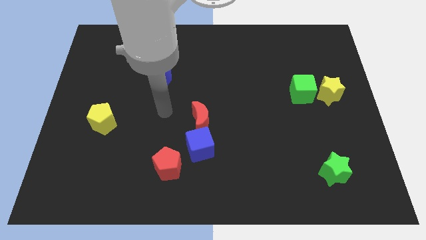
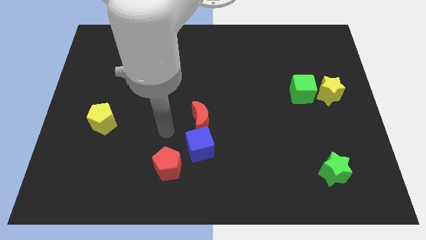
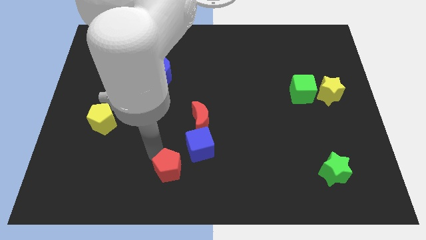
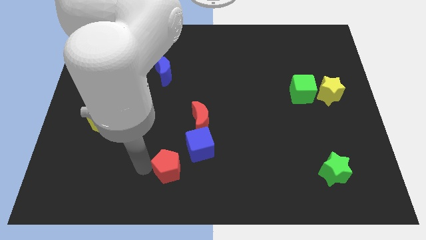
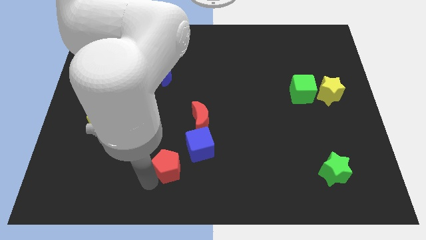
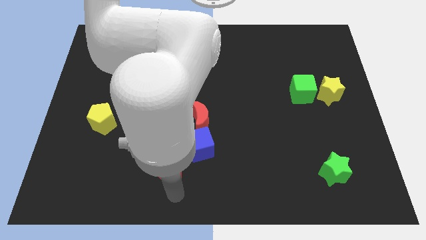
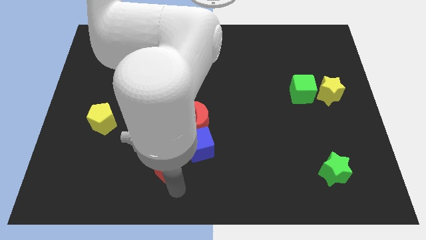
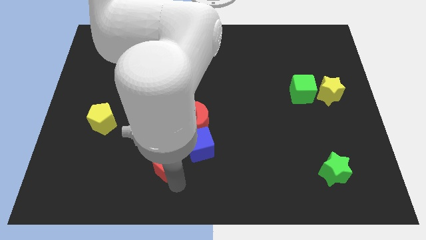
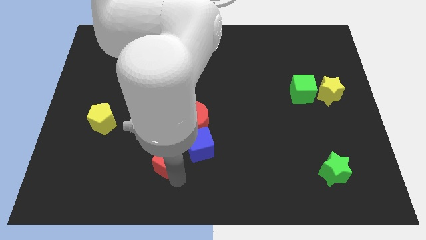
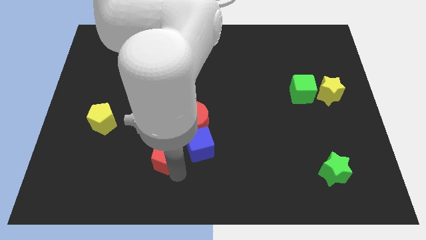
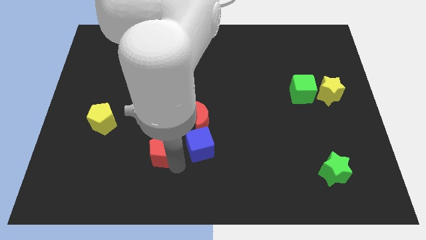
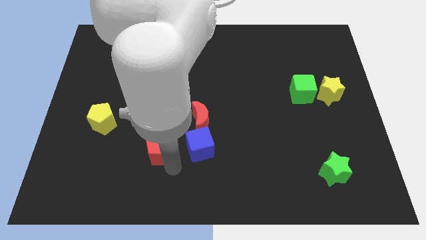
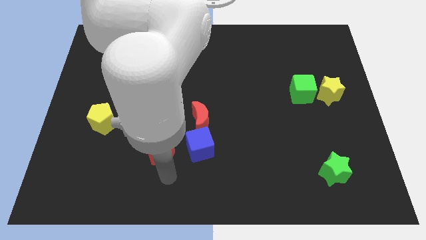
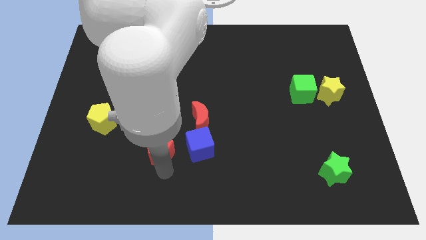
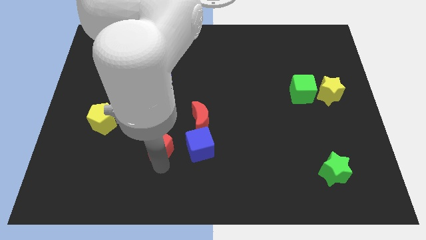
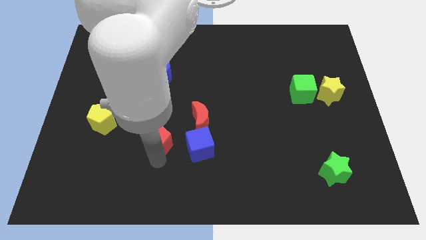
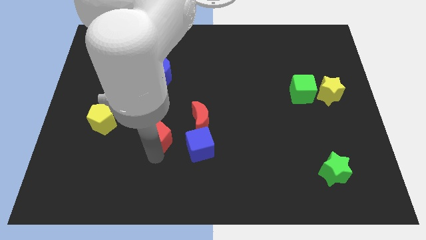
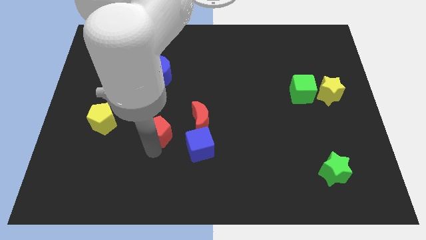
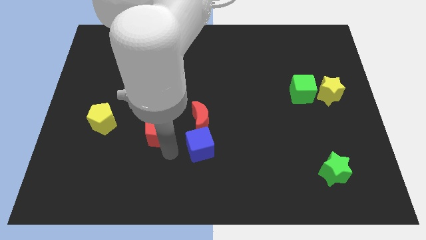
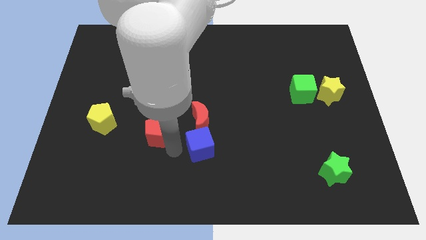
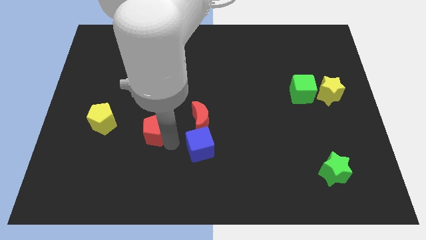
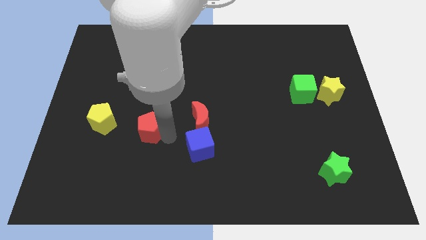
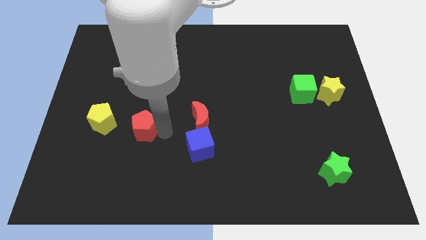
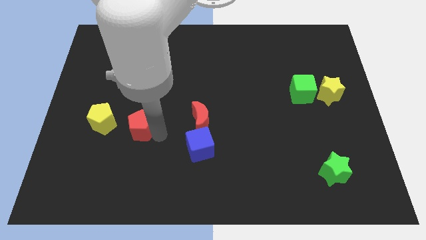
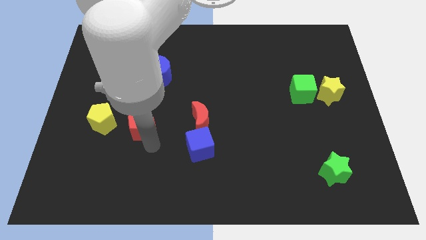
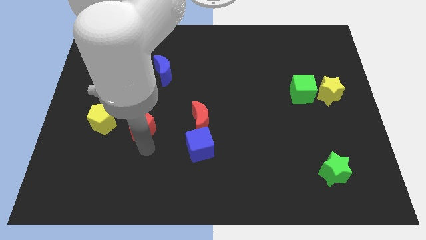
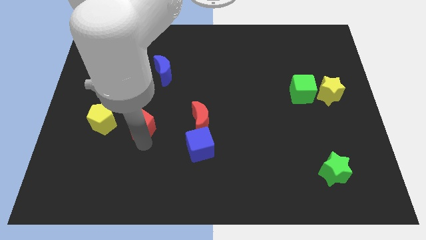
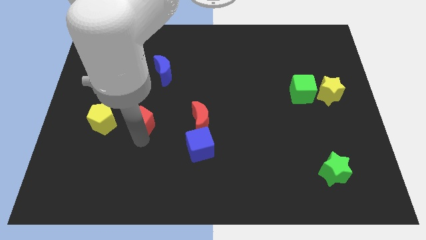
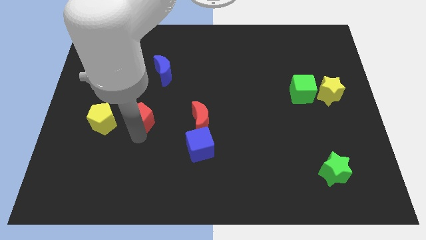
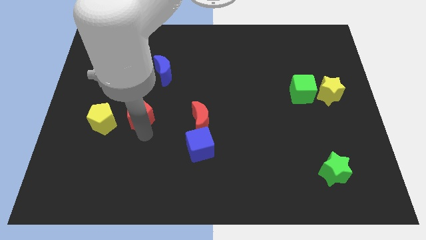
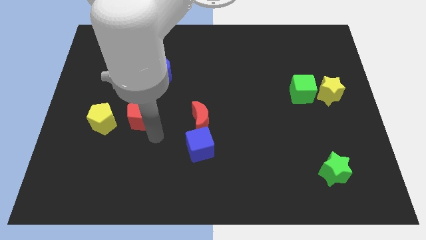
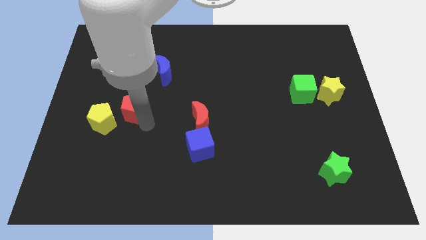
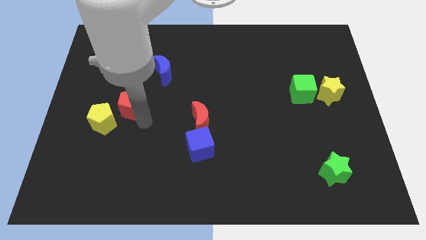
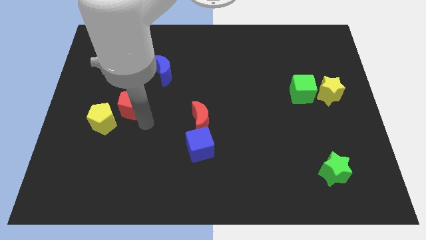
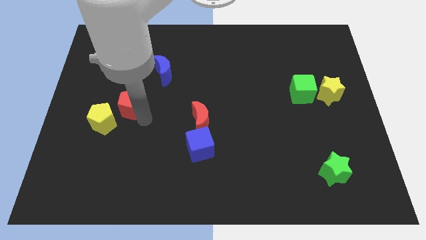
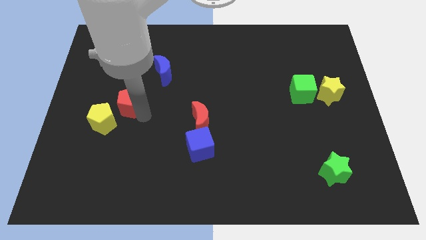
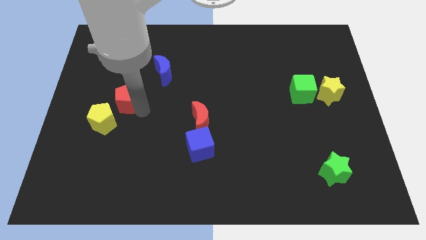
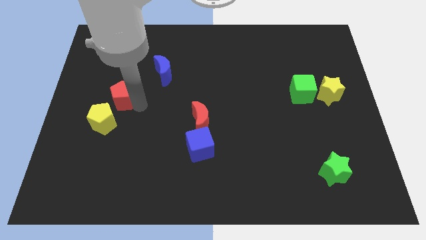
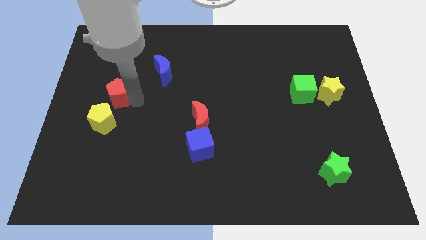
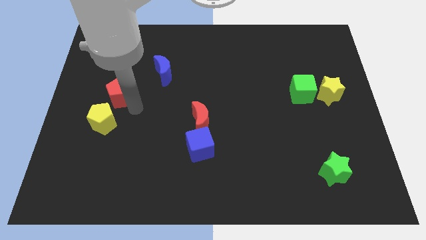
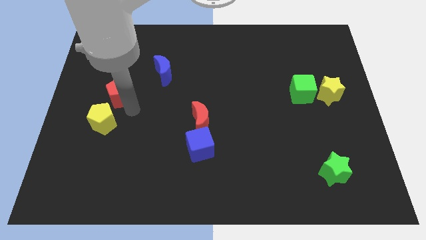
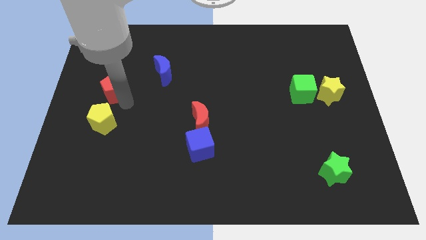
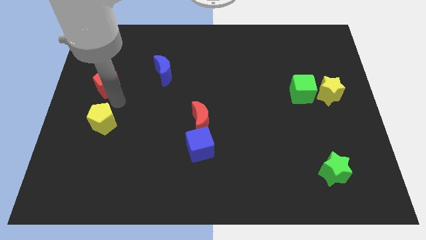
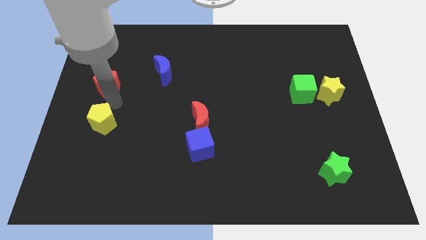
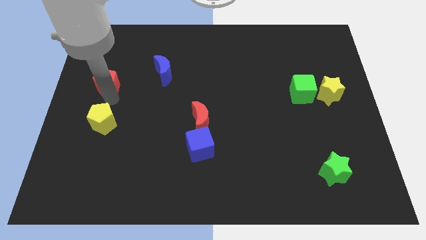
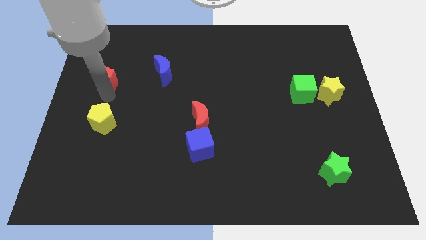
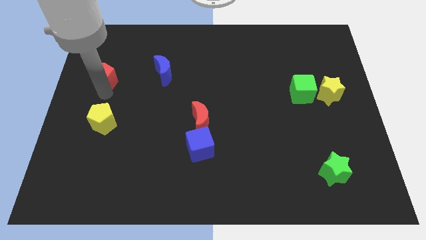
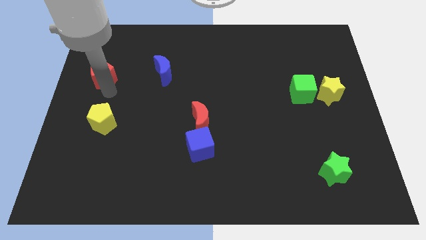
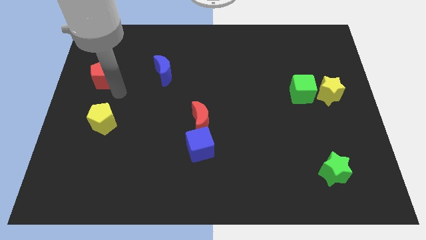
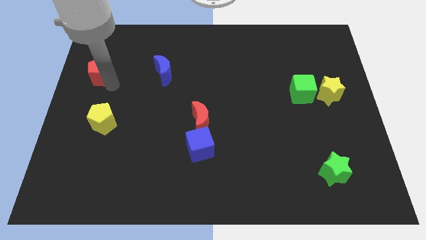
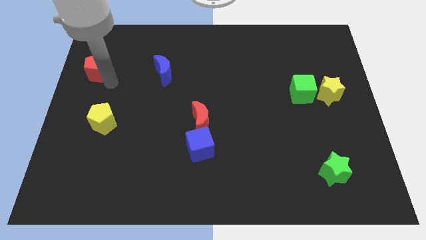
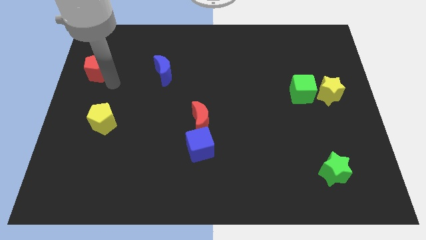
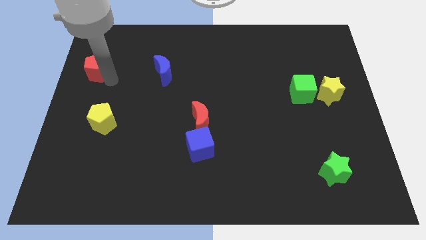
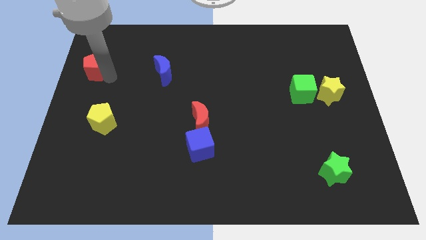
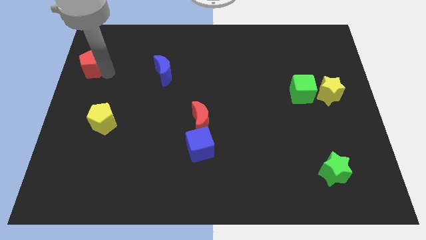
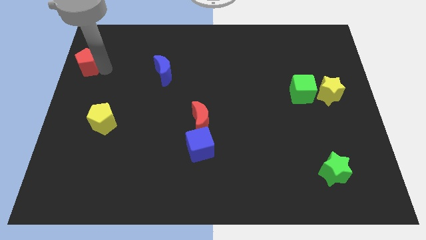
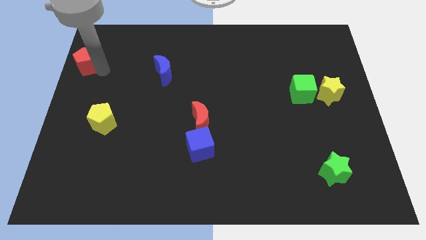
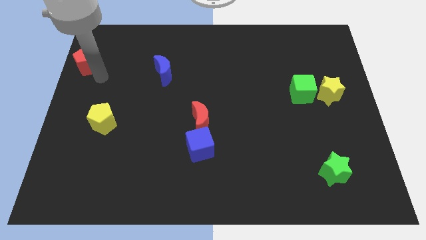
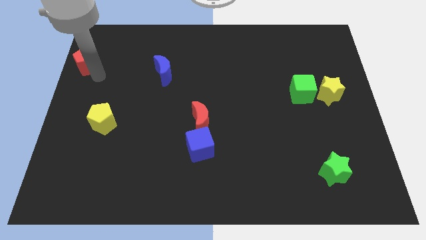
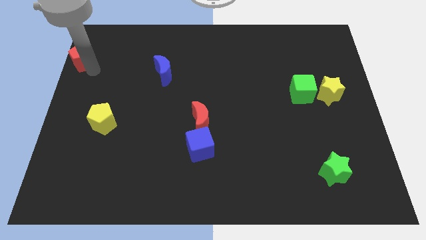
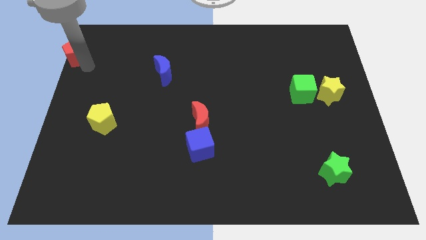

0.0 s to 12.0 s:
push the red pentagon to the top left of the board
